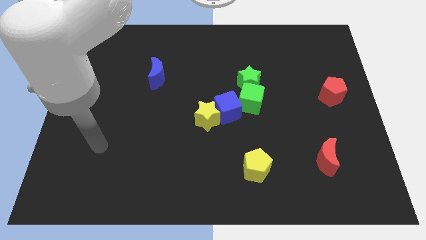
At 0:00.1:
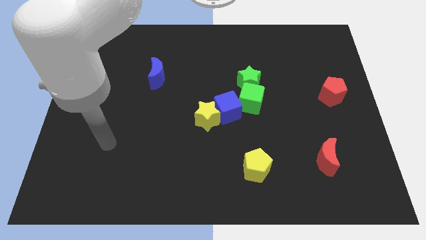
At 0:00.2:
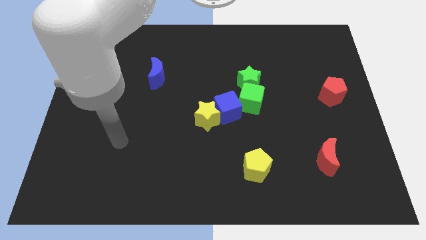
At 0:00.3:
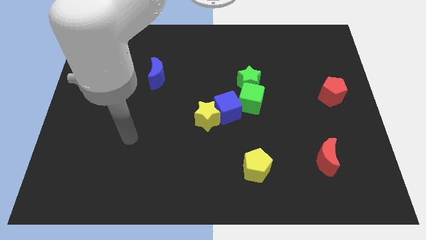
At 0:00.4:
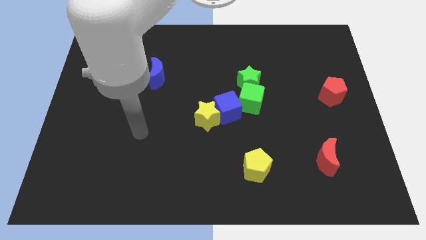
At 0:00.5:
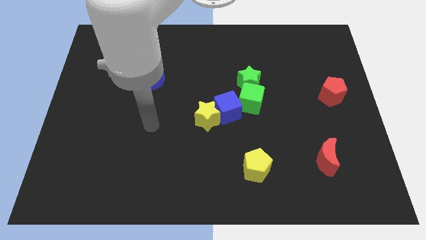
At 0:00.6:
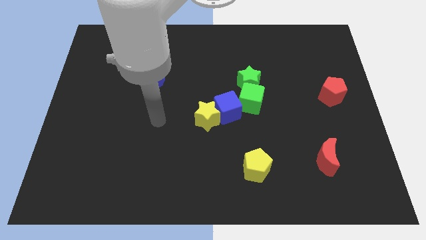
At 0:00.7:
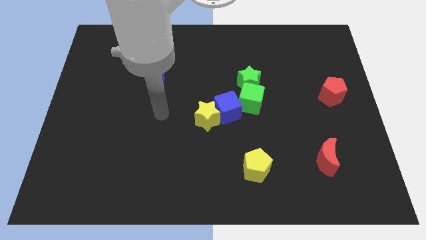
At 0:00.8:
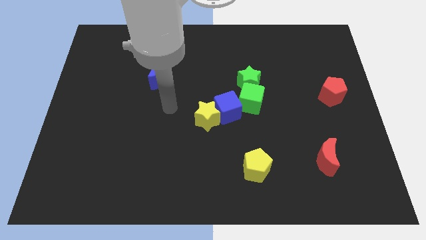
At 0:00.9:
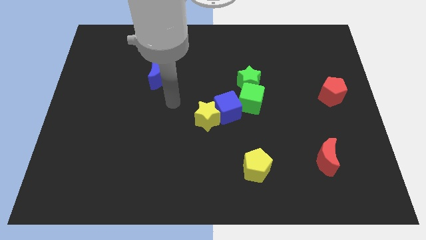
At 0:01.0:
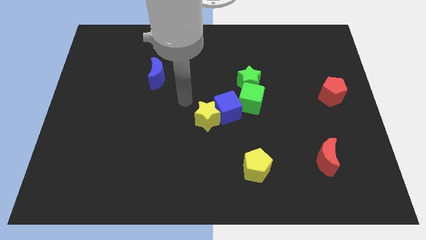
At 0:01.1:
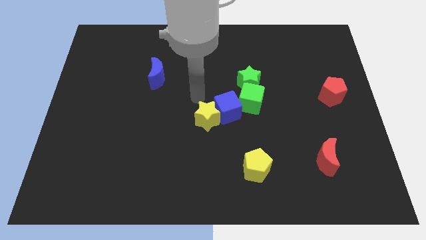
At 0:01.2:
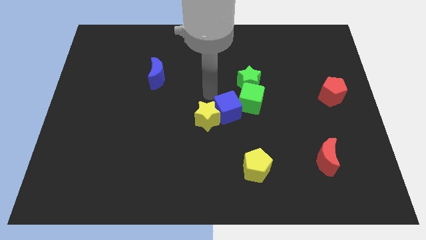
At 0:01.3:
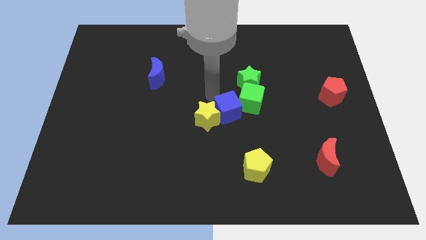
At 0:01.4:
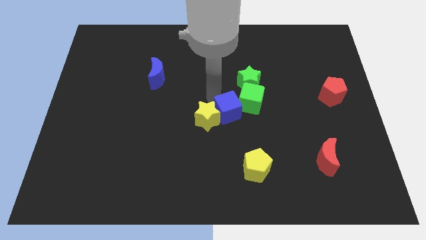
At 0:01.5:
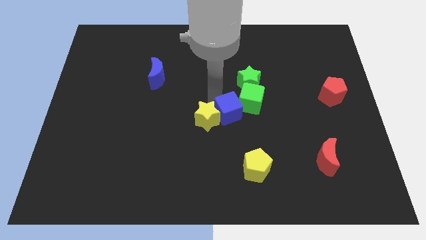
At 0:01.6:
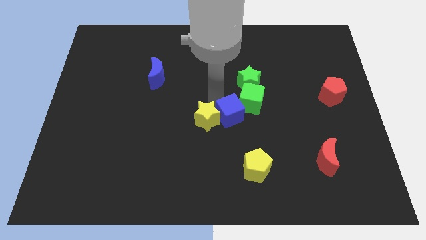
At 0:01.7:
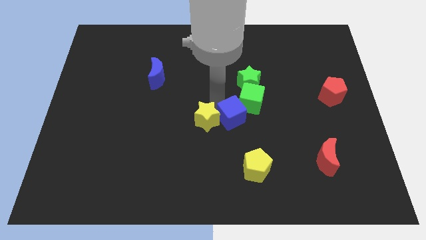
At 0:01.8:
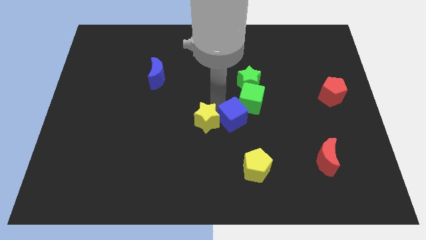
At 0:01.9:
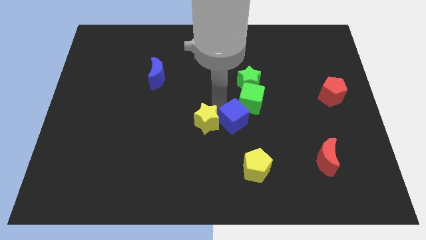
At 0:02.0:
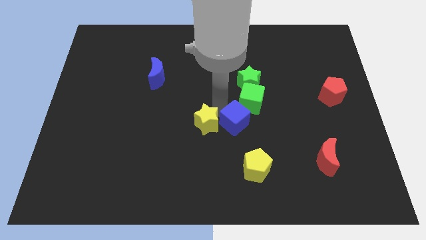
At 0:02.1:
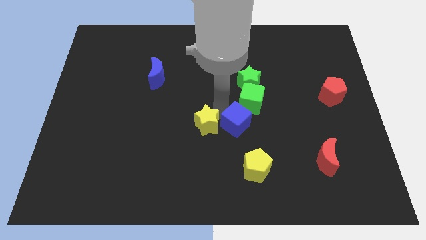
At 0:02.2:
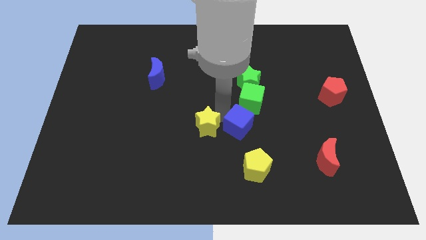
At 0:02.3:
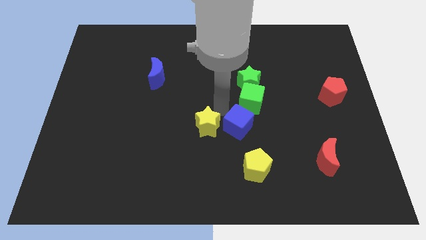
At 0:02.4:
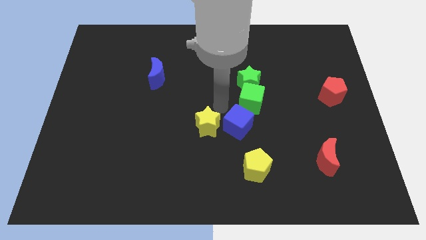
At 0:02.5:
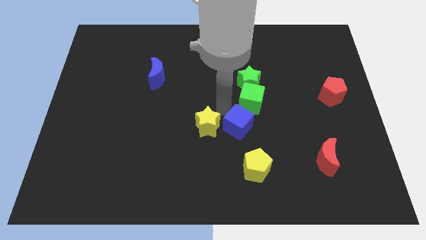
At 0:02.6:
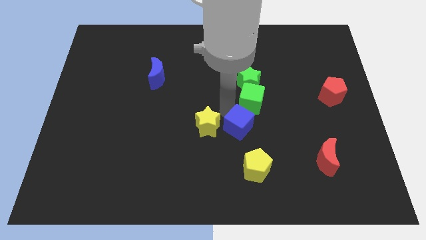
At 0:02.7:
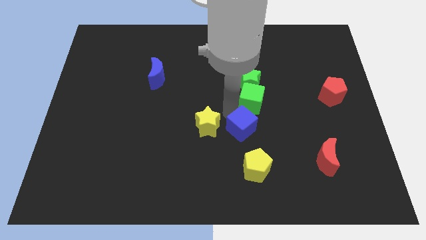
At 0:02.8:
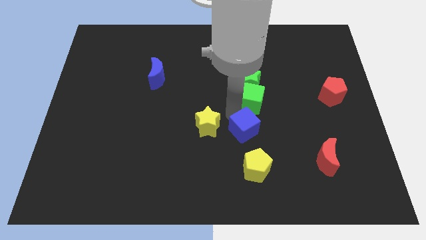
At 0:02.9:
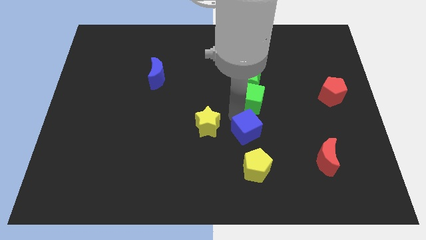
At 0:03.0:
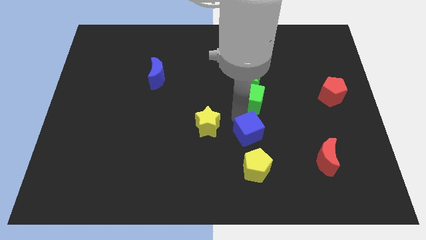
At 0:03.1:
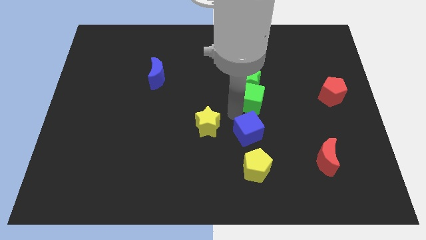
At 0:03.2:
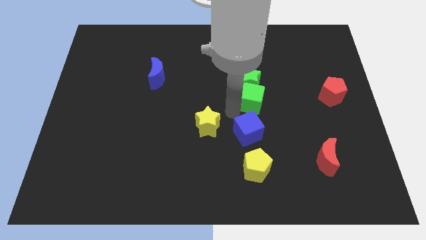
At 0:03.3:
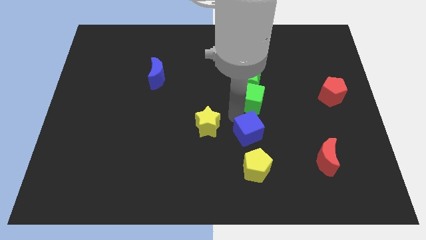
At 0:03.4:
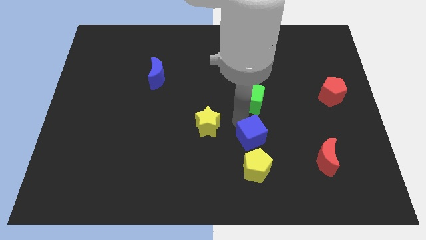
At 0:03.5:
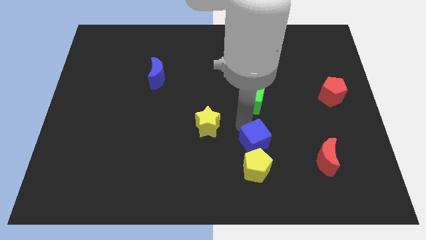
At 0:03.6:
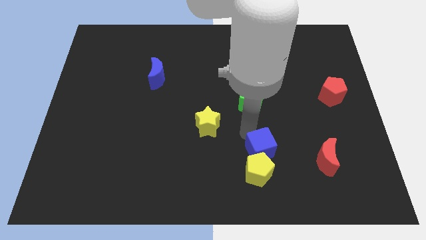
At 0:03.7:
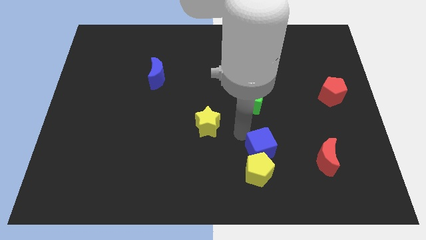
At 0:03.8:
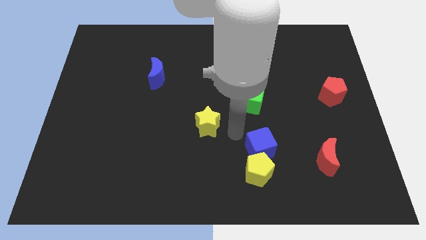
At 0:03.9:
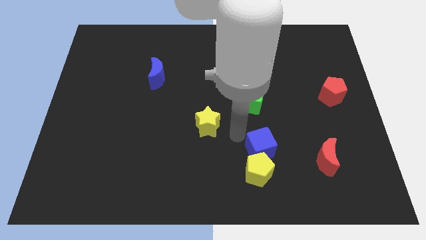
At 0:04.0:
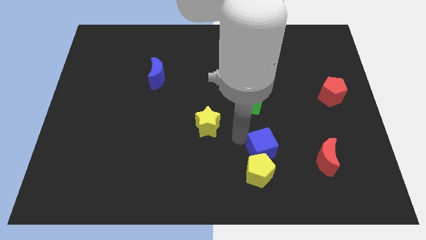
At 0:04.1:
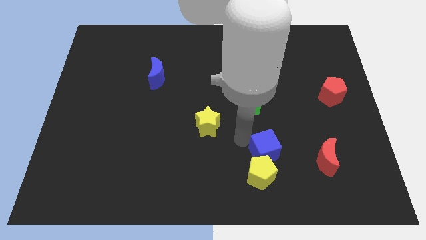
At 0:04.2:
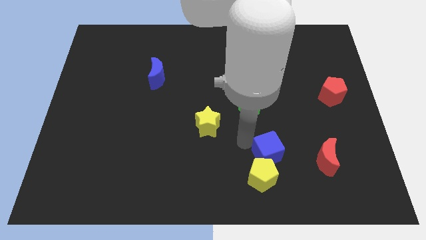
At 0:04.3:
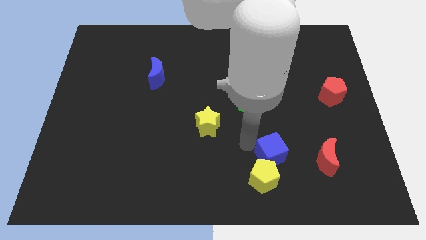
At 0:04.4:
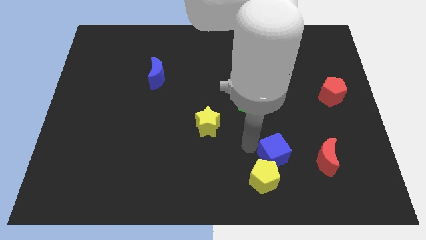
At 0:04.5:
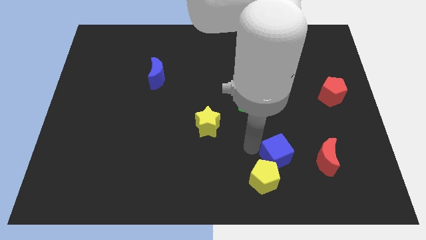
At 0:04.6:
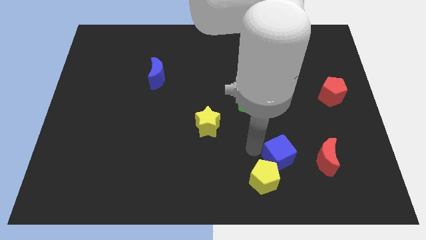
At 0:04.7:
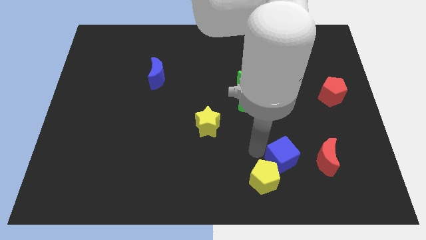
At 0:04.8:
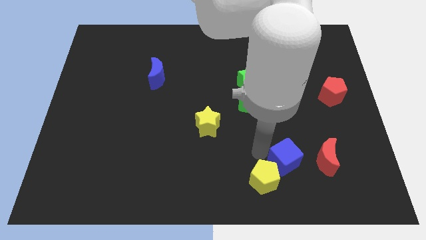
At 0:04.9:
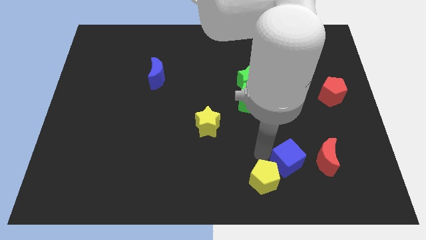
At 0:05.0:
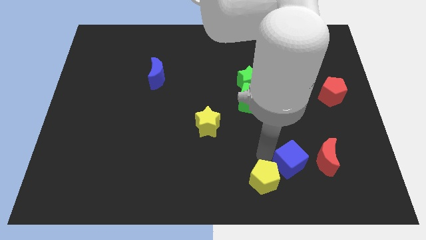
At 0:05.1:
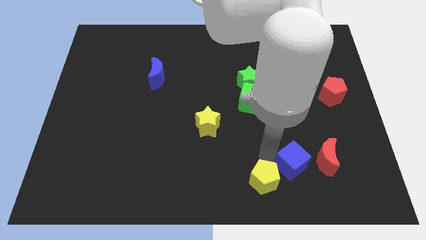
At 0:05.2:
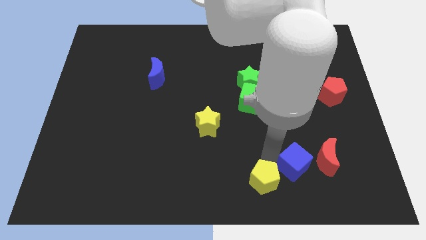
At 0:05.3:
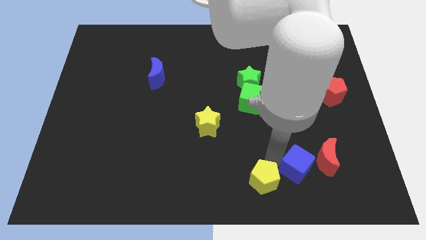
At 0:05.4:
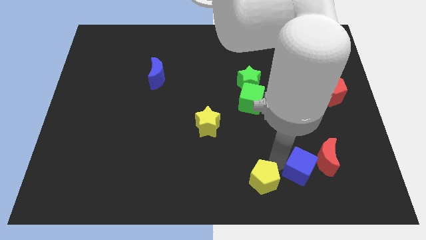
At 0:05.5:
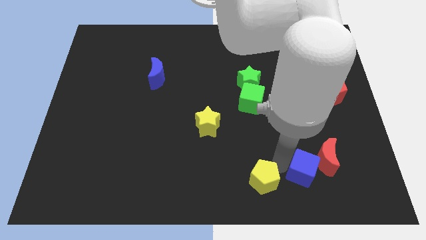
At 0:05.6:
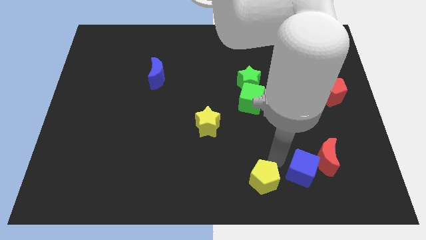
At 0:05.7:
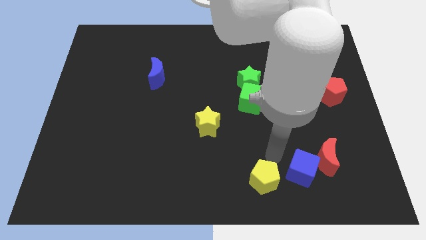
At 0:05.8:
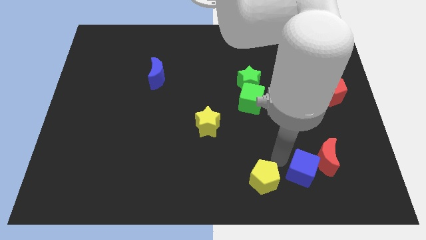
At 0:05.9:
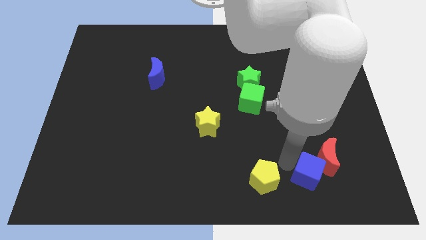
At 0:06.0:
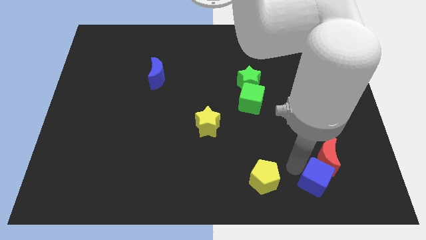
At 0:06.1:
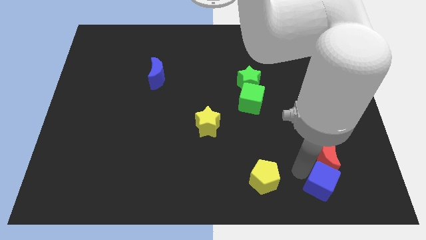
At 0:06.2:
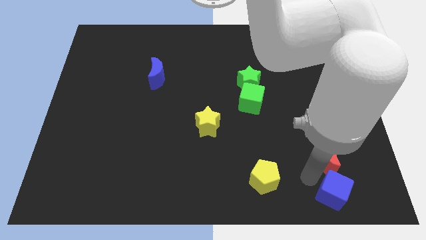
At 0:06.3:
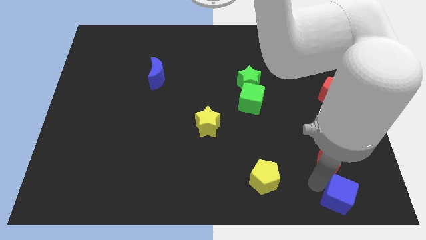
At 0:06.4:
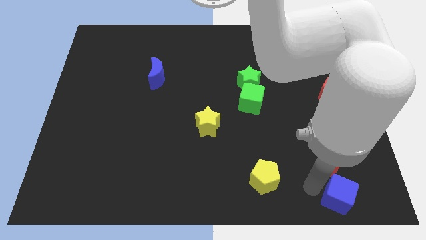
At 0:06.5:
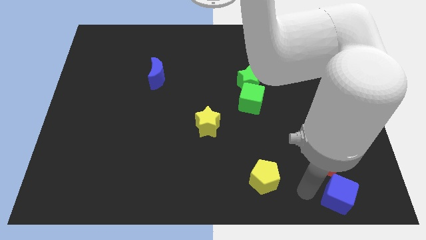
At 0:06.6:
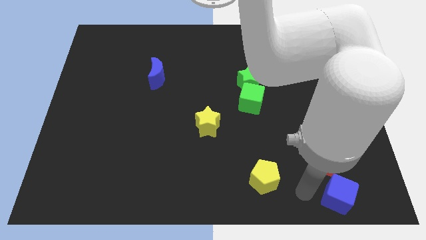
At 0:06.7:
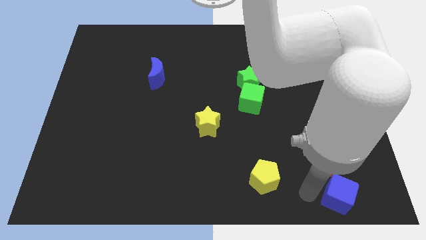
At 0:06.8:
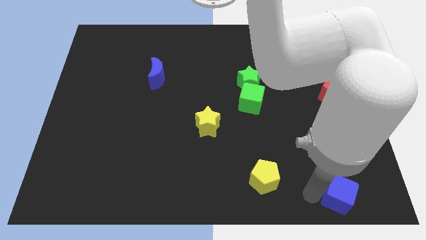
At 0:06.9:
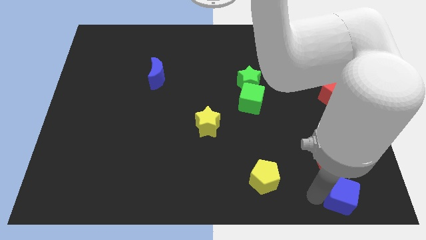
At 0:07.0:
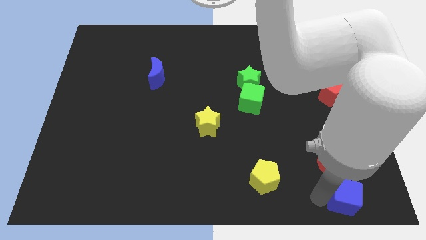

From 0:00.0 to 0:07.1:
move the blue cube to the bottom right of the board
